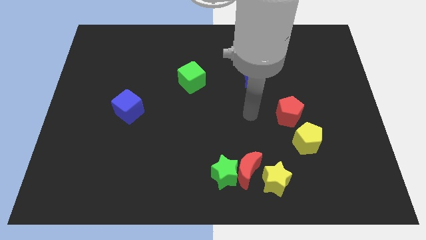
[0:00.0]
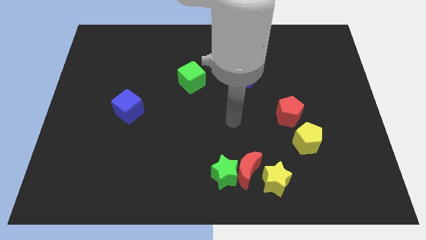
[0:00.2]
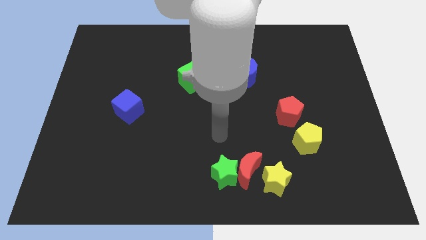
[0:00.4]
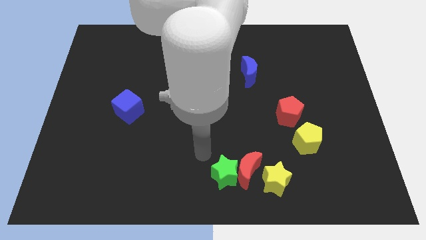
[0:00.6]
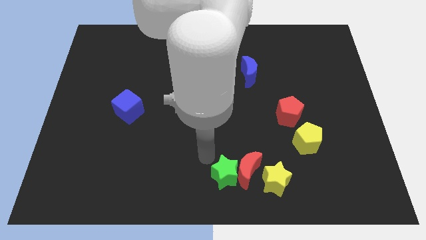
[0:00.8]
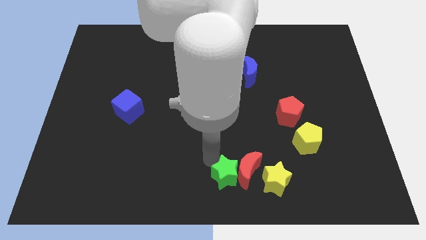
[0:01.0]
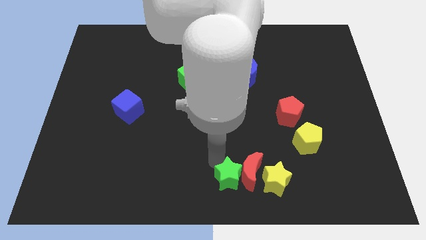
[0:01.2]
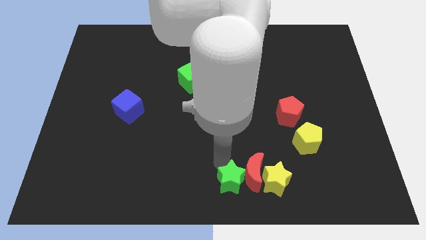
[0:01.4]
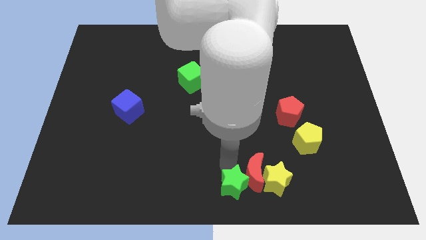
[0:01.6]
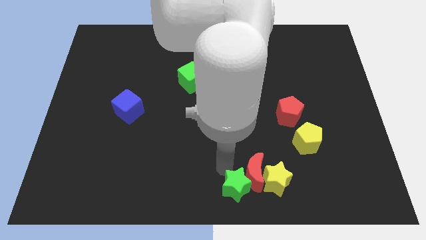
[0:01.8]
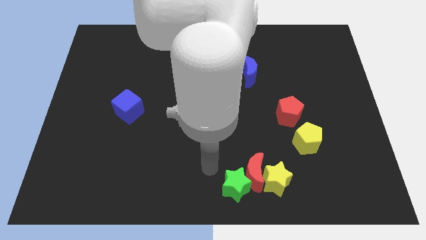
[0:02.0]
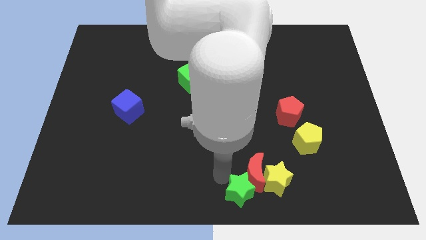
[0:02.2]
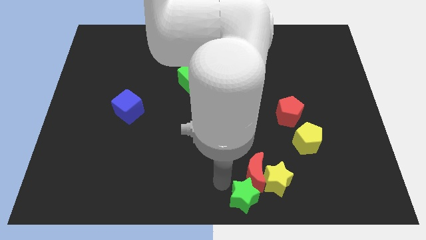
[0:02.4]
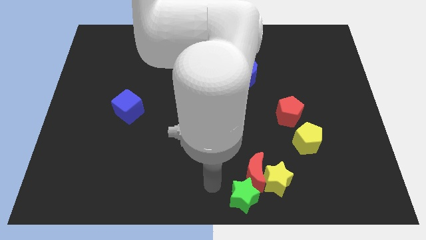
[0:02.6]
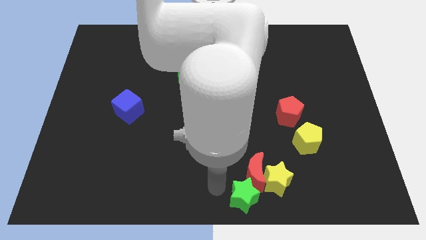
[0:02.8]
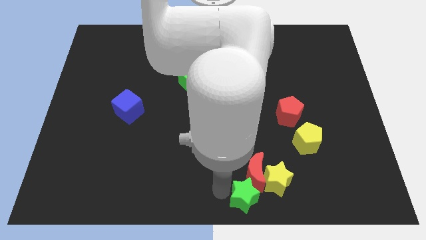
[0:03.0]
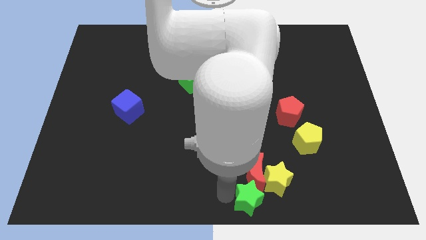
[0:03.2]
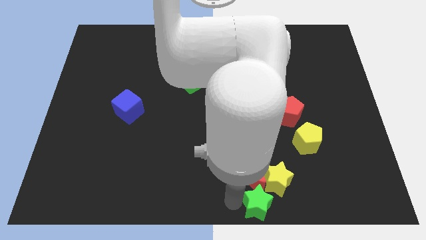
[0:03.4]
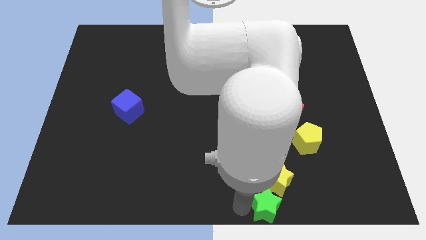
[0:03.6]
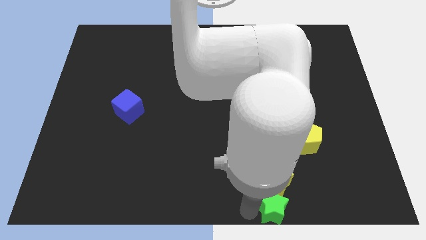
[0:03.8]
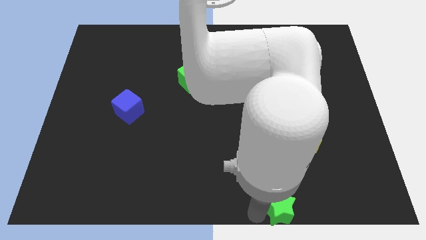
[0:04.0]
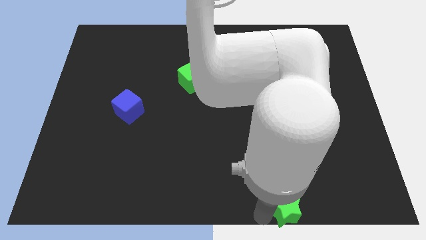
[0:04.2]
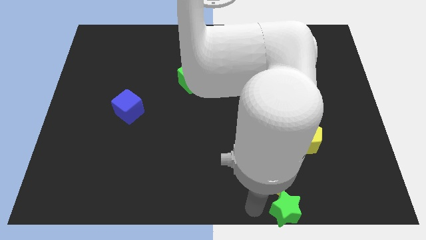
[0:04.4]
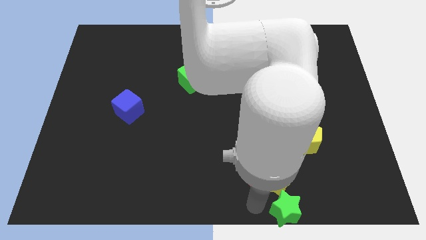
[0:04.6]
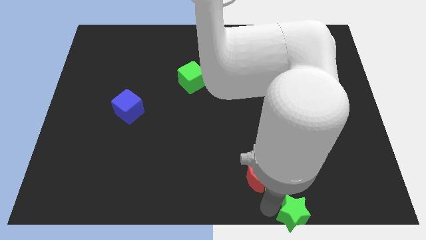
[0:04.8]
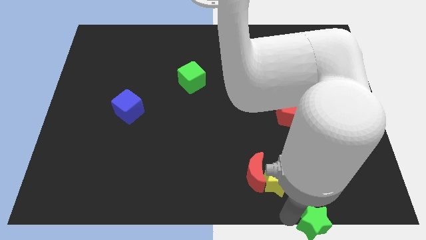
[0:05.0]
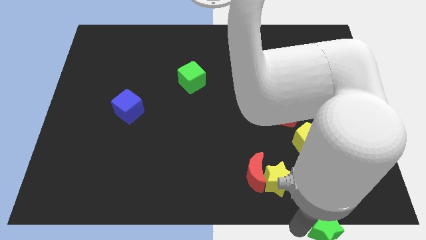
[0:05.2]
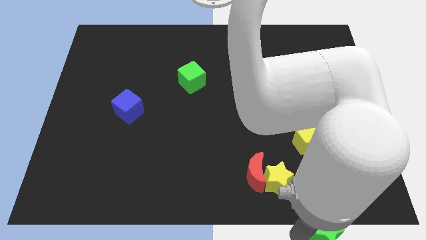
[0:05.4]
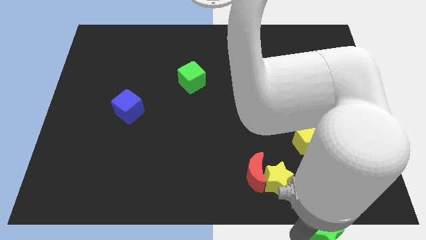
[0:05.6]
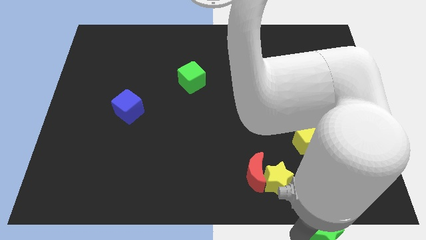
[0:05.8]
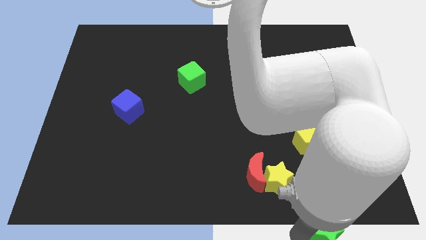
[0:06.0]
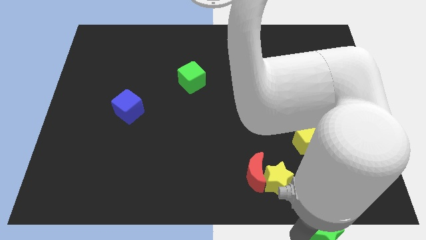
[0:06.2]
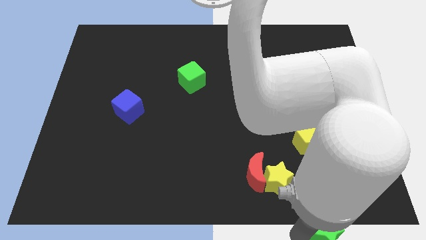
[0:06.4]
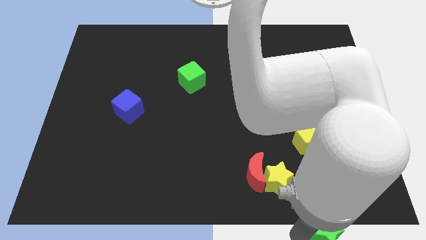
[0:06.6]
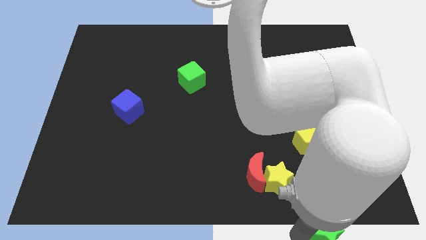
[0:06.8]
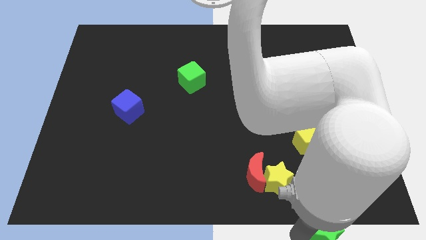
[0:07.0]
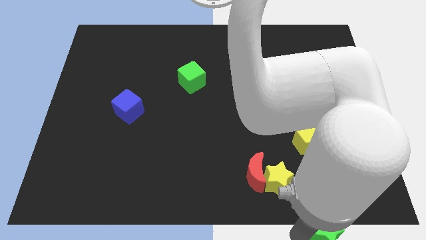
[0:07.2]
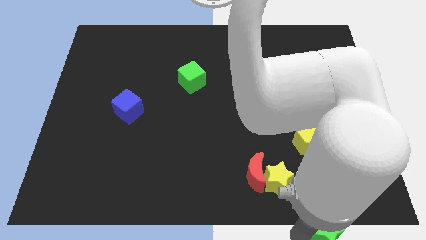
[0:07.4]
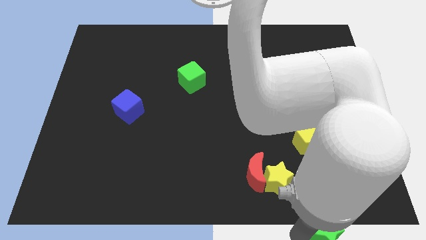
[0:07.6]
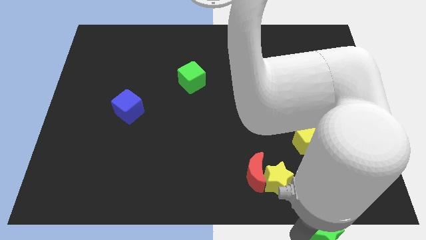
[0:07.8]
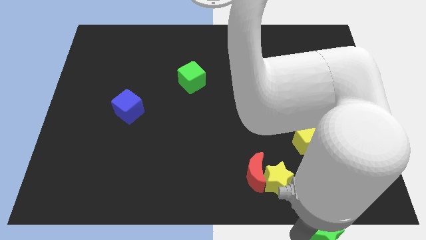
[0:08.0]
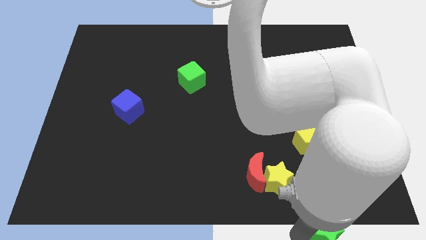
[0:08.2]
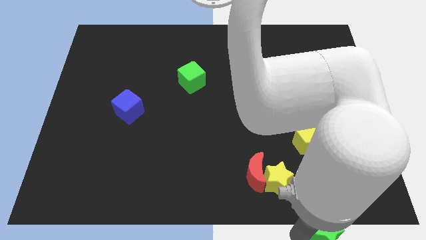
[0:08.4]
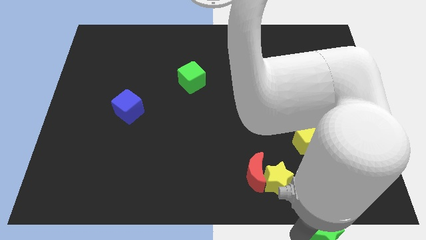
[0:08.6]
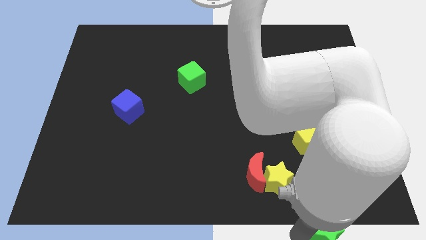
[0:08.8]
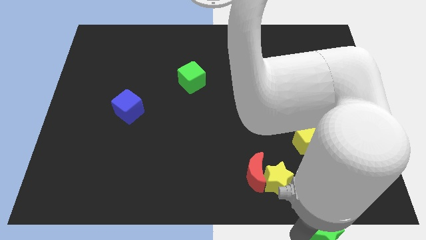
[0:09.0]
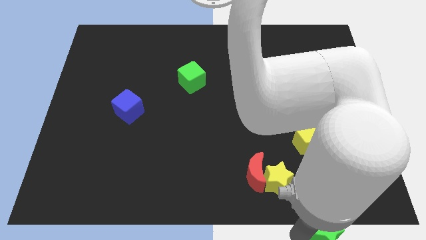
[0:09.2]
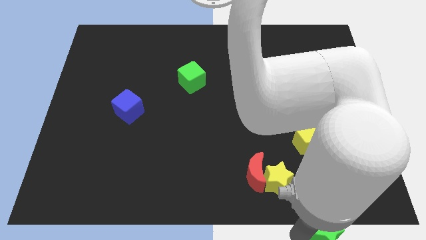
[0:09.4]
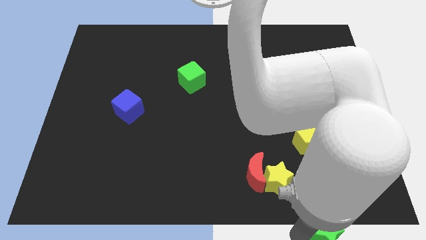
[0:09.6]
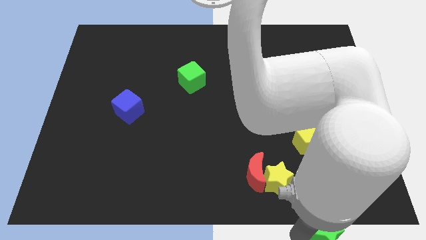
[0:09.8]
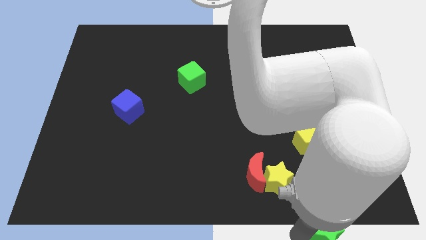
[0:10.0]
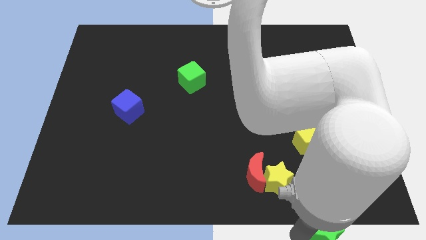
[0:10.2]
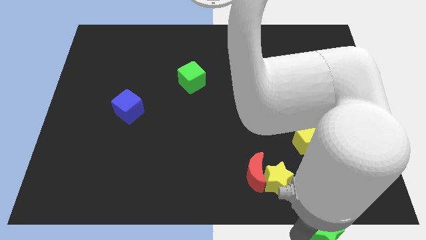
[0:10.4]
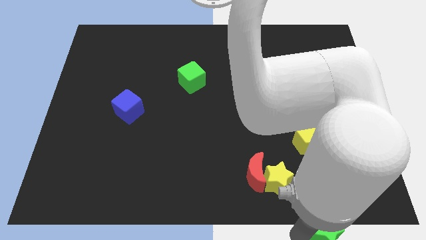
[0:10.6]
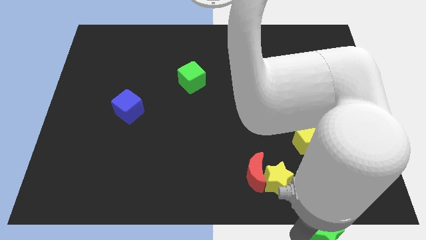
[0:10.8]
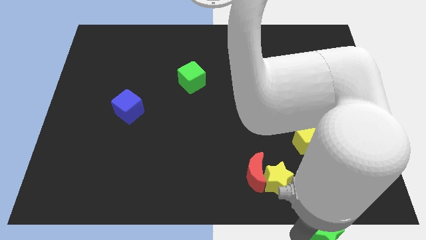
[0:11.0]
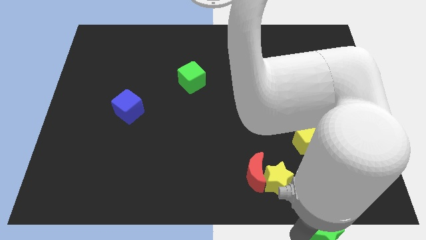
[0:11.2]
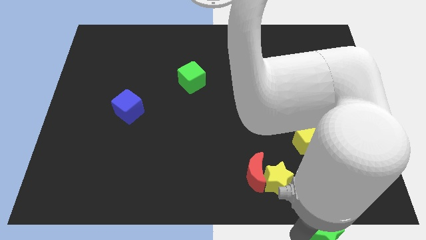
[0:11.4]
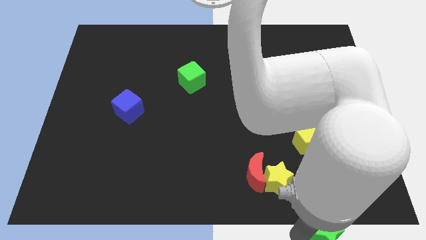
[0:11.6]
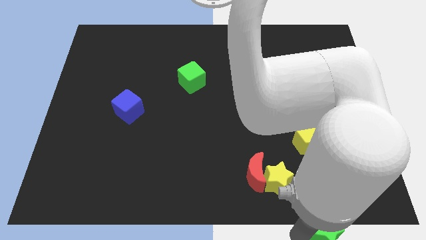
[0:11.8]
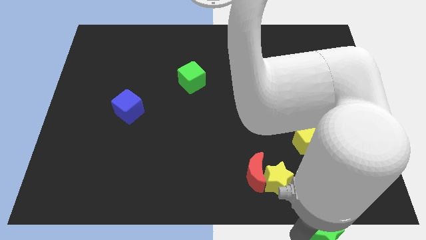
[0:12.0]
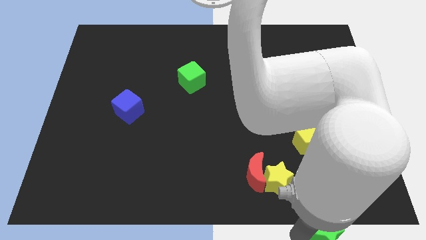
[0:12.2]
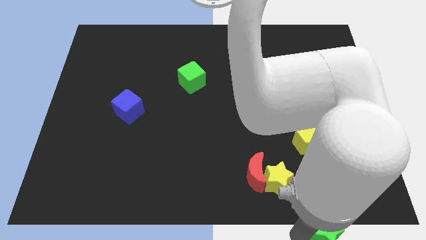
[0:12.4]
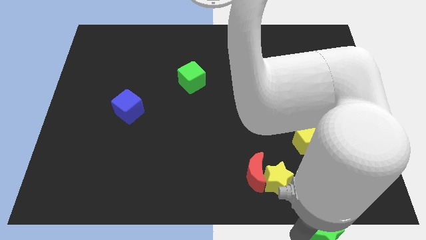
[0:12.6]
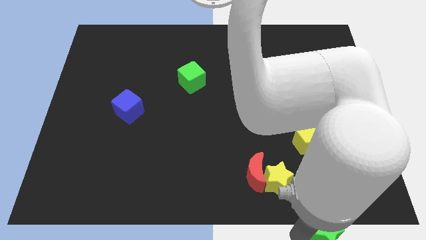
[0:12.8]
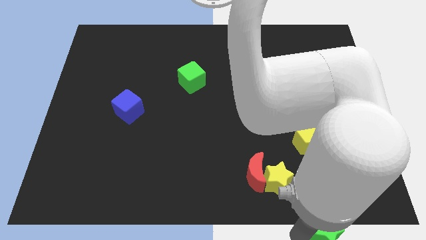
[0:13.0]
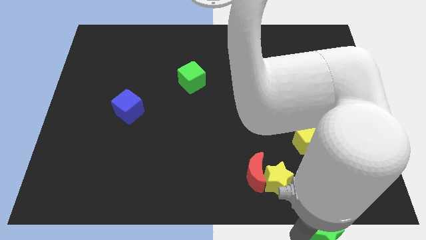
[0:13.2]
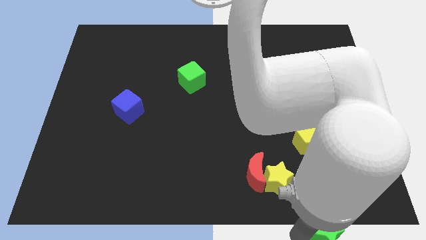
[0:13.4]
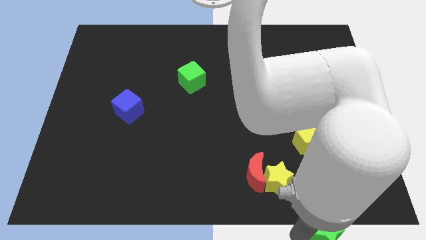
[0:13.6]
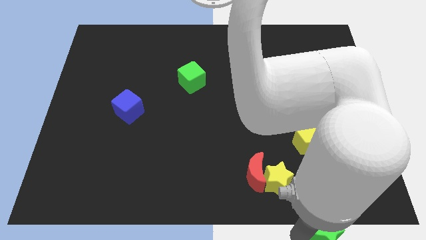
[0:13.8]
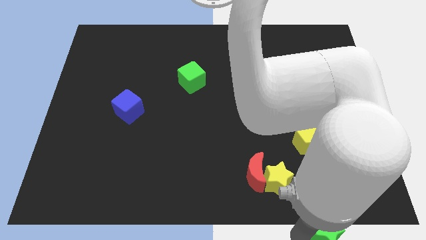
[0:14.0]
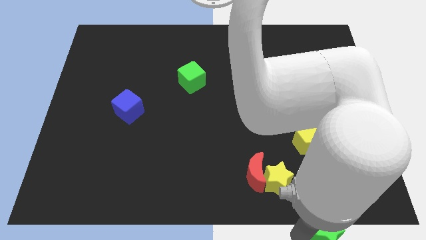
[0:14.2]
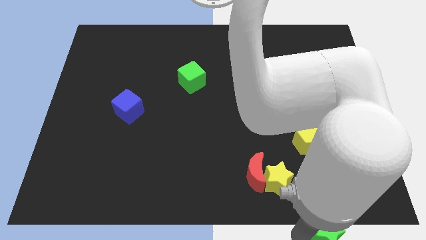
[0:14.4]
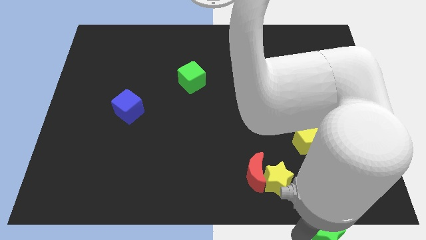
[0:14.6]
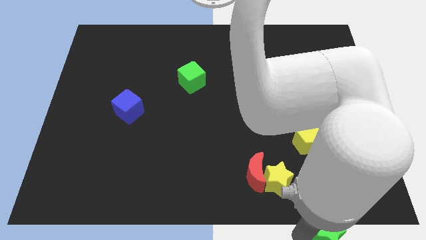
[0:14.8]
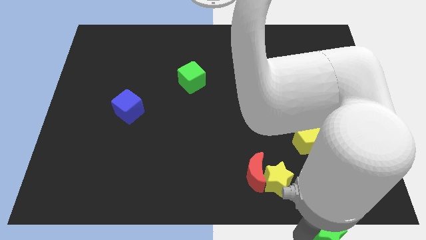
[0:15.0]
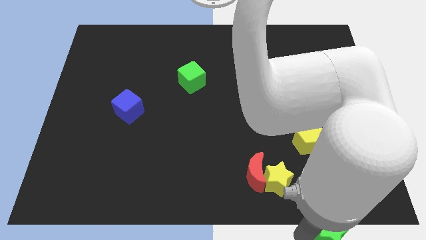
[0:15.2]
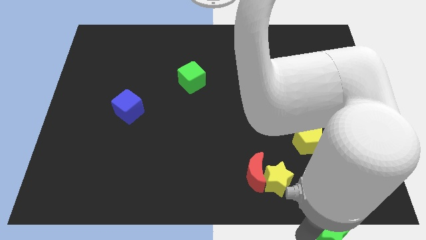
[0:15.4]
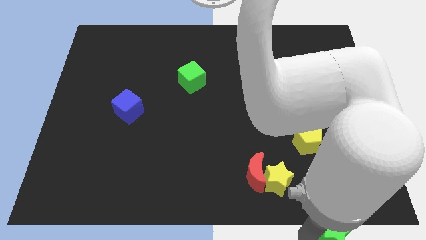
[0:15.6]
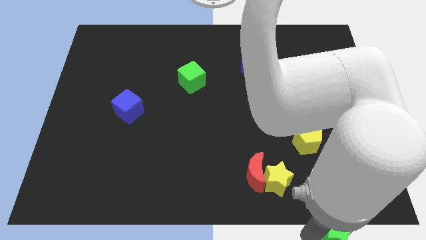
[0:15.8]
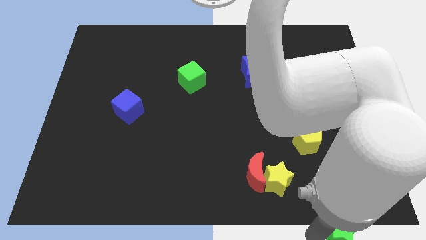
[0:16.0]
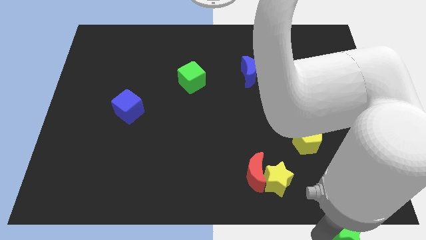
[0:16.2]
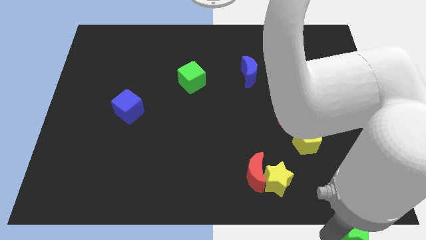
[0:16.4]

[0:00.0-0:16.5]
slide the green star to the bottom right corner
